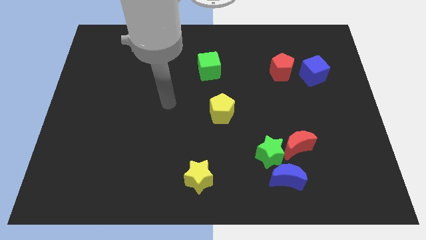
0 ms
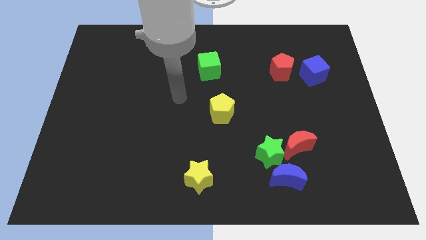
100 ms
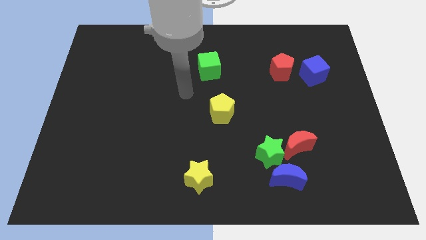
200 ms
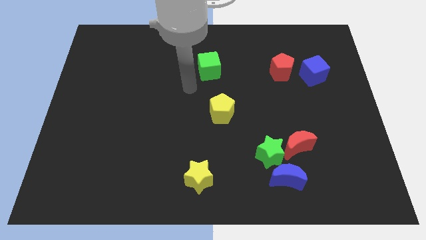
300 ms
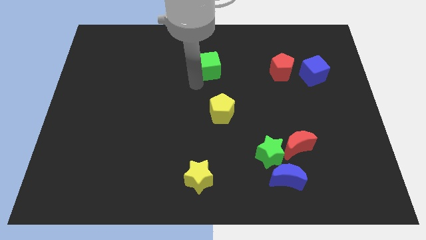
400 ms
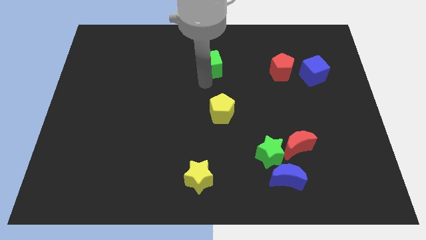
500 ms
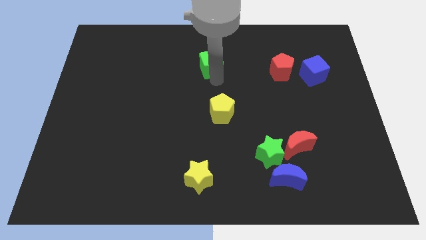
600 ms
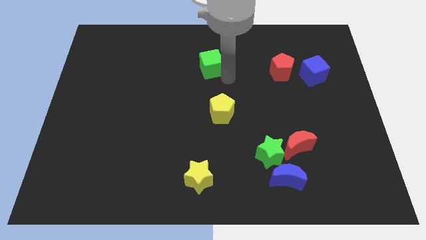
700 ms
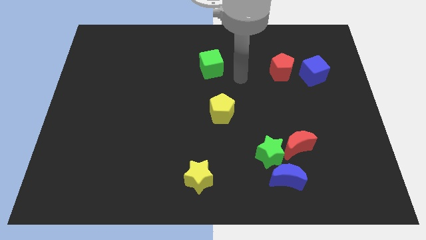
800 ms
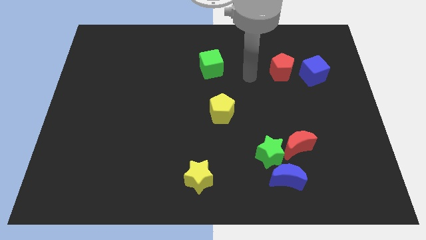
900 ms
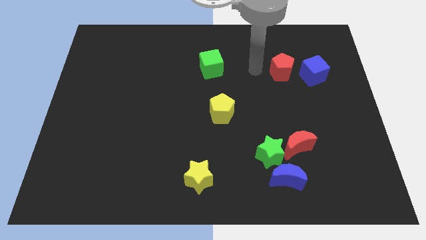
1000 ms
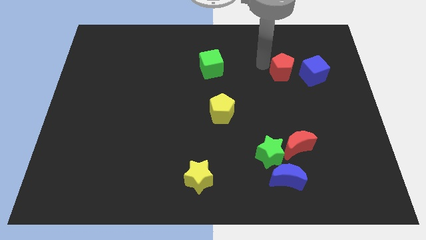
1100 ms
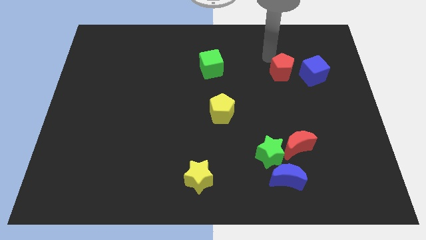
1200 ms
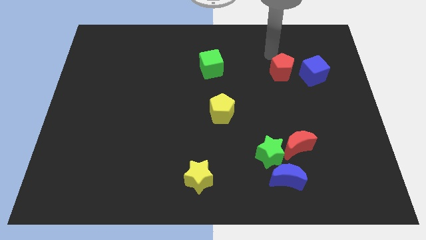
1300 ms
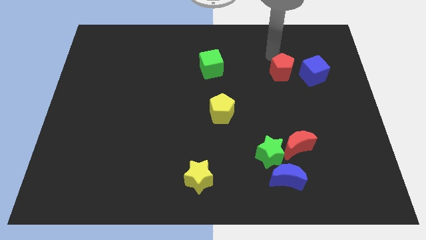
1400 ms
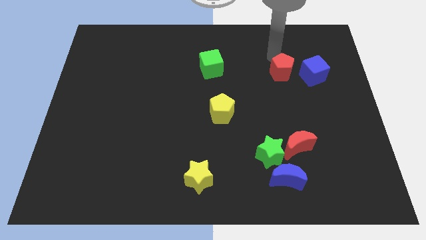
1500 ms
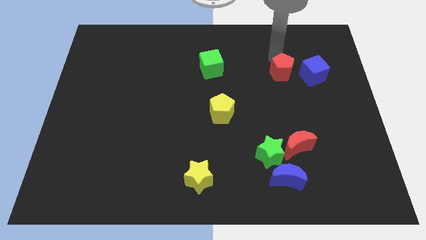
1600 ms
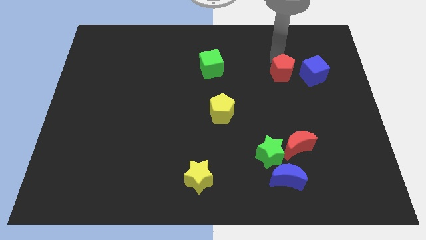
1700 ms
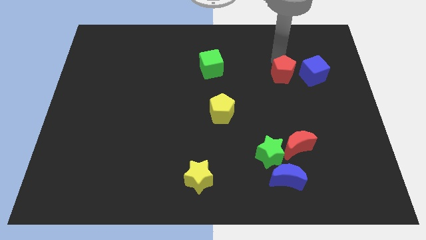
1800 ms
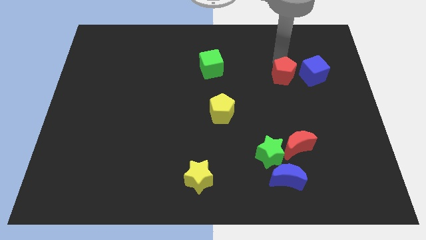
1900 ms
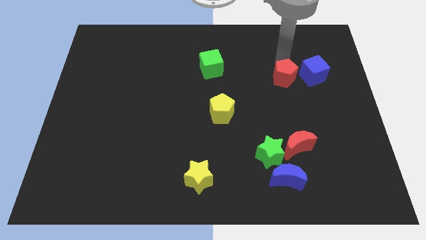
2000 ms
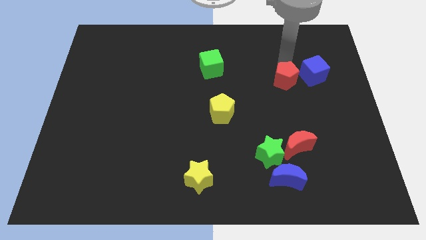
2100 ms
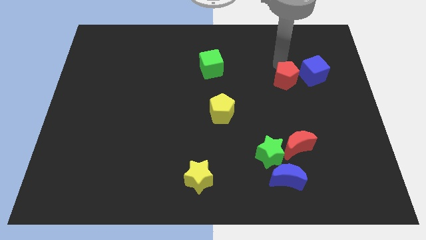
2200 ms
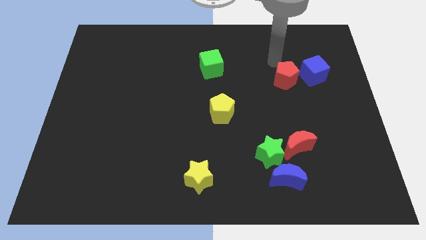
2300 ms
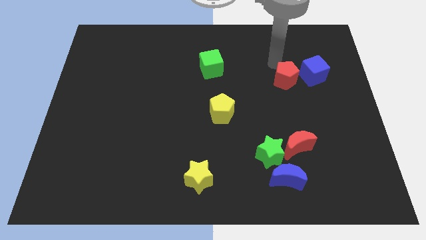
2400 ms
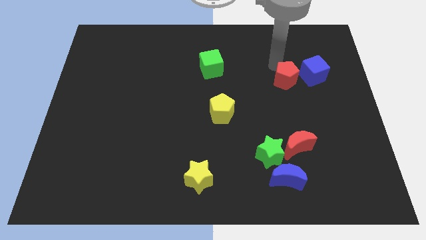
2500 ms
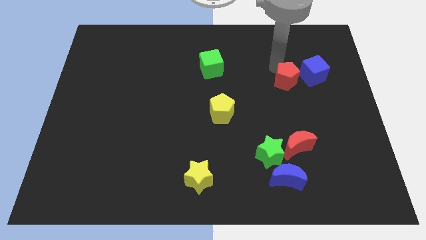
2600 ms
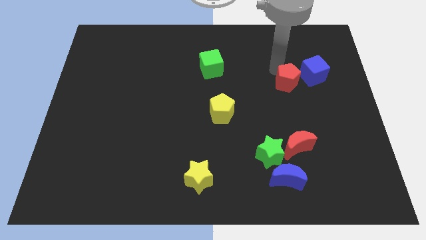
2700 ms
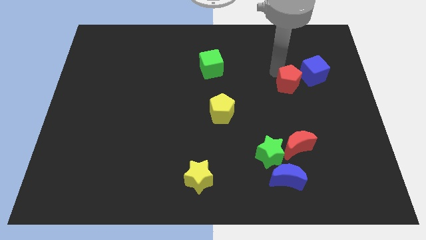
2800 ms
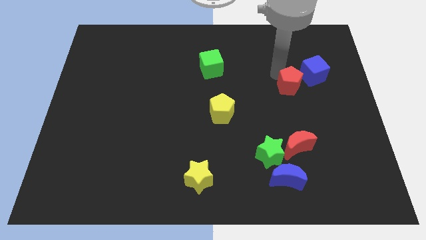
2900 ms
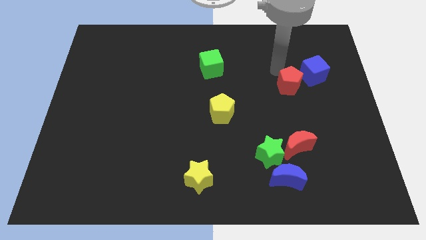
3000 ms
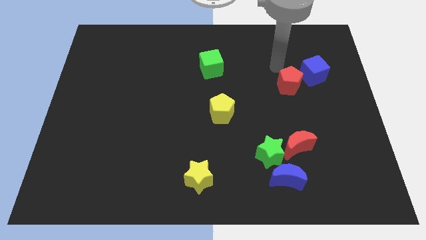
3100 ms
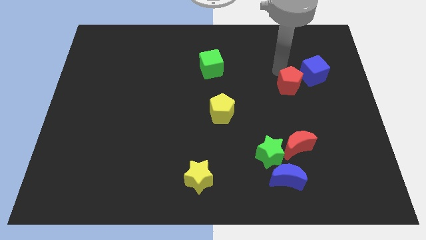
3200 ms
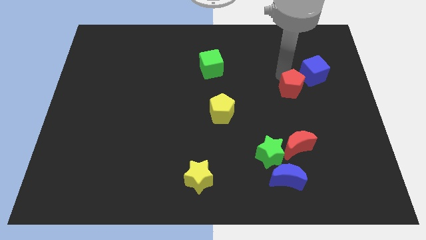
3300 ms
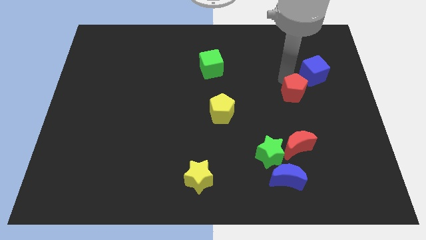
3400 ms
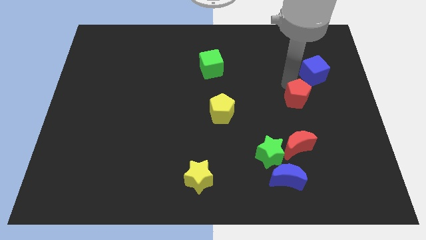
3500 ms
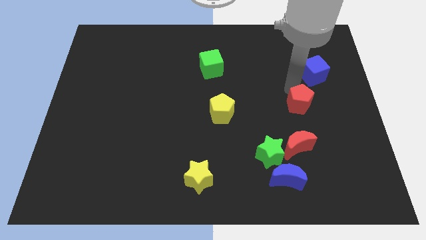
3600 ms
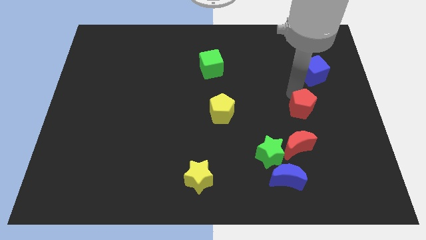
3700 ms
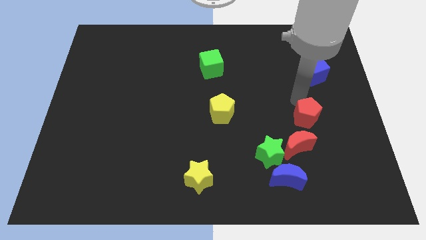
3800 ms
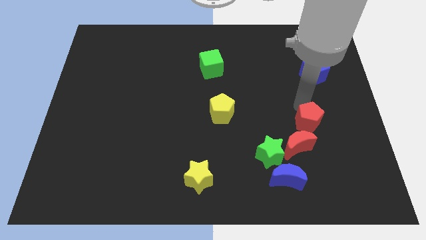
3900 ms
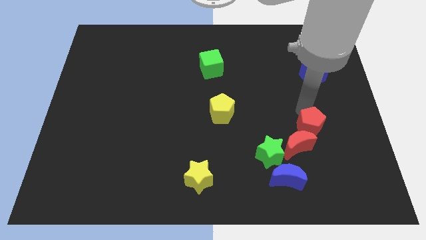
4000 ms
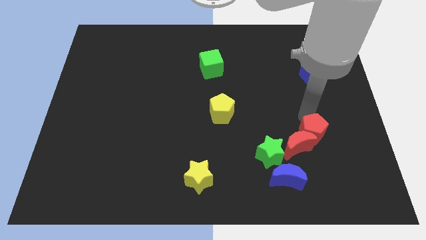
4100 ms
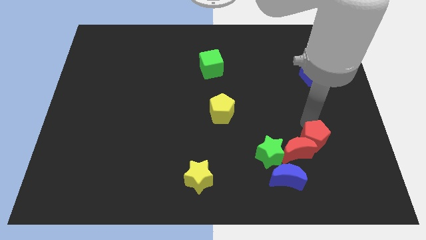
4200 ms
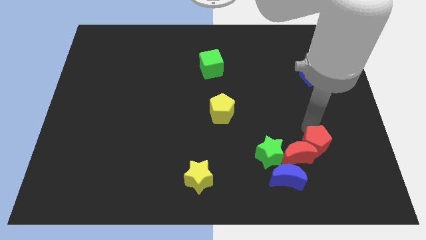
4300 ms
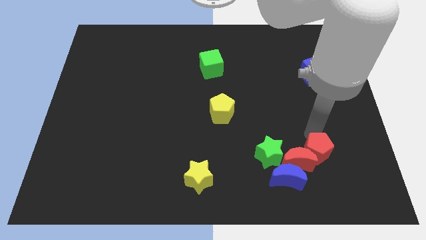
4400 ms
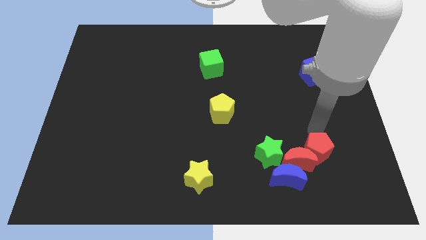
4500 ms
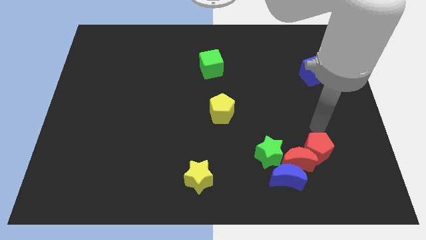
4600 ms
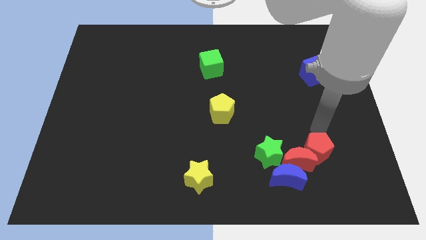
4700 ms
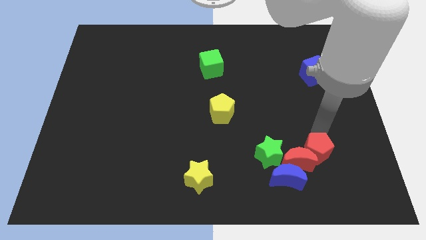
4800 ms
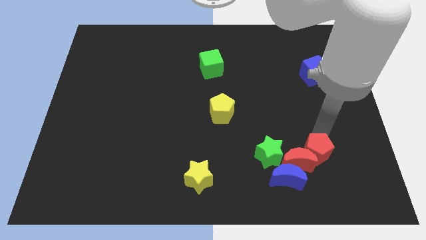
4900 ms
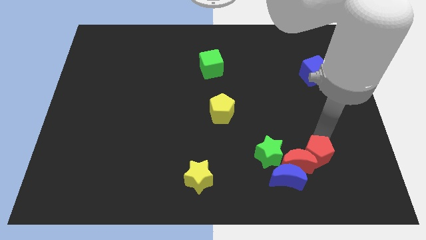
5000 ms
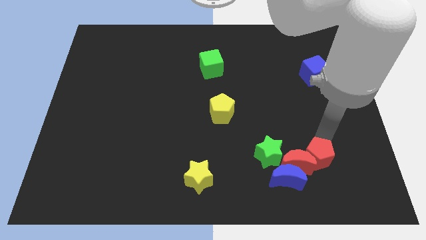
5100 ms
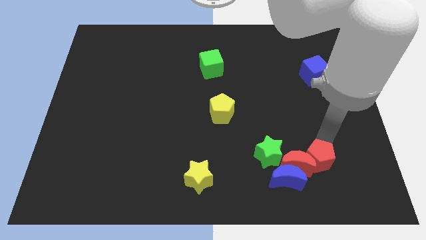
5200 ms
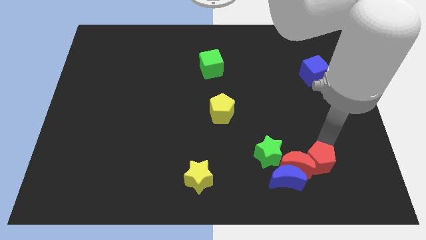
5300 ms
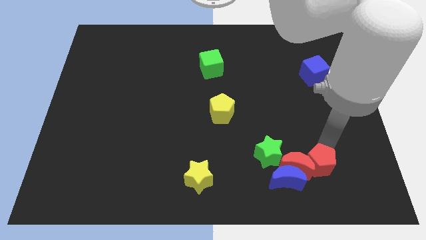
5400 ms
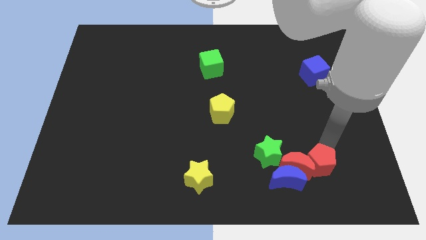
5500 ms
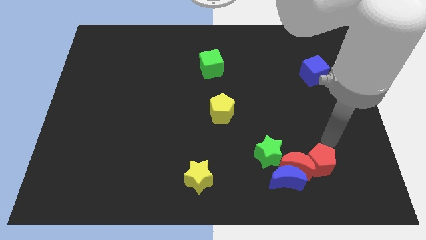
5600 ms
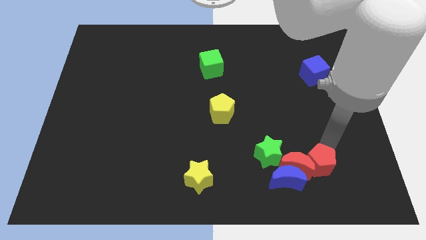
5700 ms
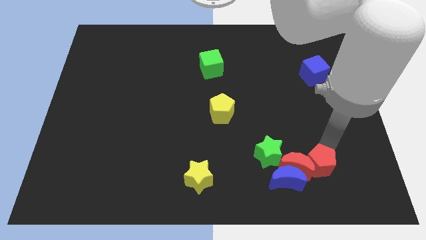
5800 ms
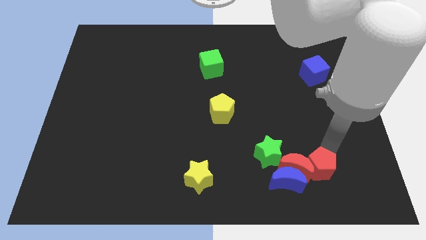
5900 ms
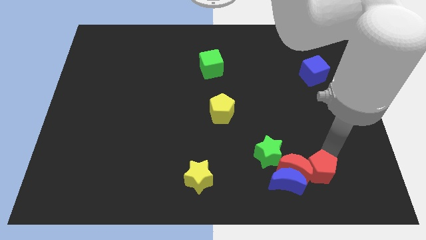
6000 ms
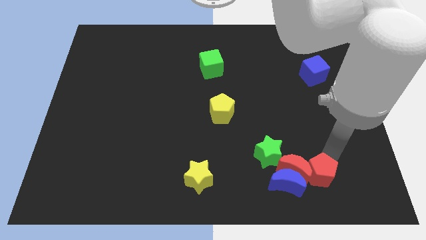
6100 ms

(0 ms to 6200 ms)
move the red pentagon to the bottom right side of the green star
